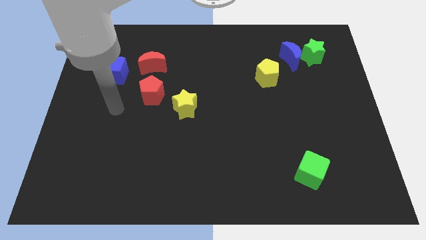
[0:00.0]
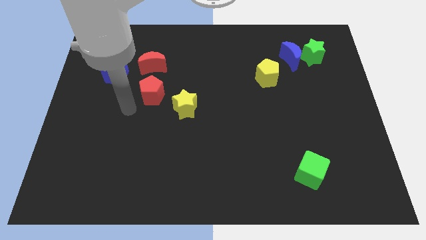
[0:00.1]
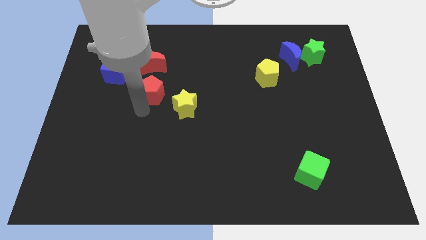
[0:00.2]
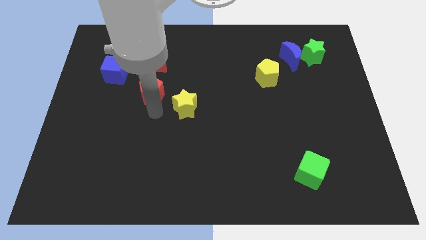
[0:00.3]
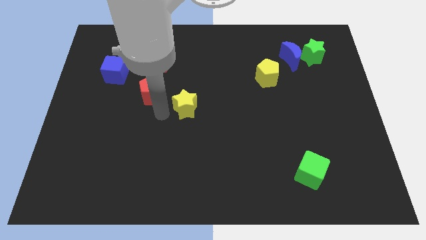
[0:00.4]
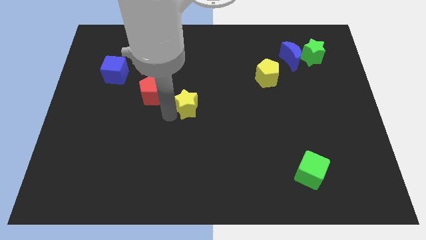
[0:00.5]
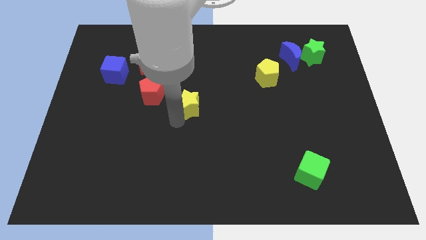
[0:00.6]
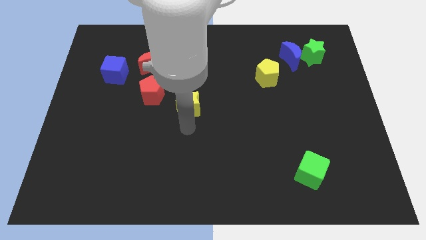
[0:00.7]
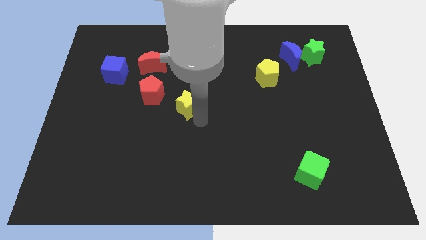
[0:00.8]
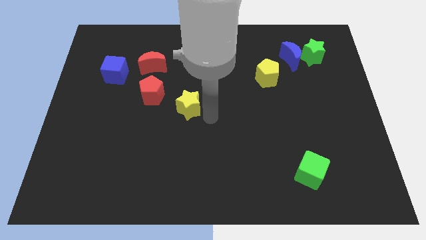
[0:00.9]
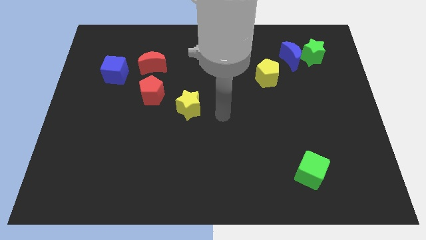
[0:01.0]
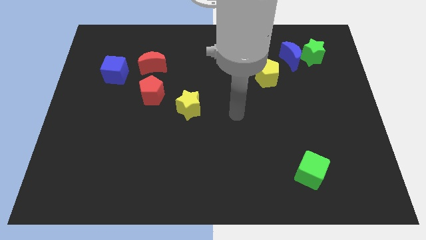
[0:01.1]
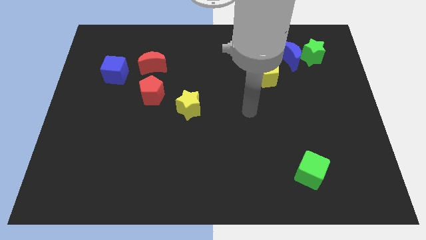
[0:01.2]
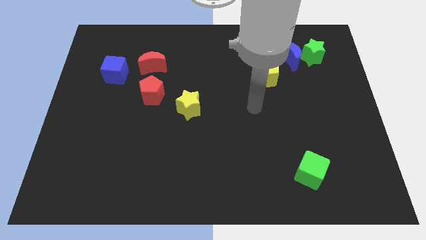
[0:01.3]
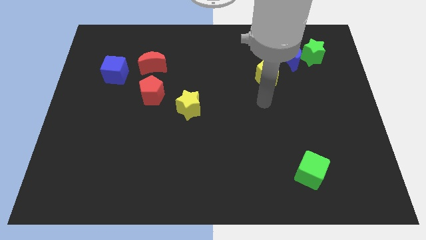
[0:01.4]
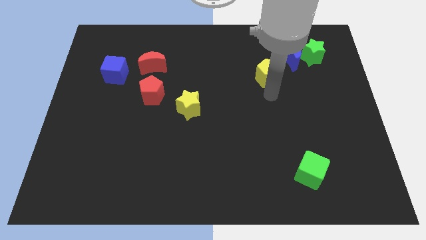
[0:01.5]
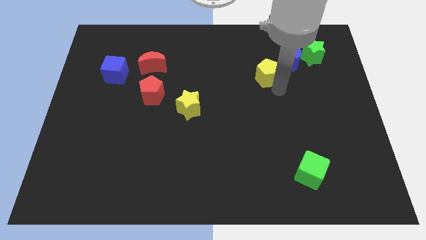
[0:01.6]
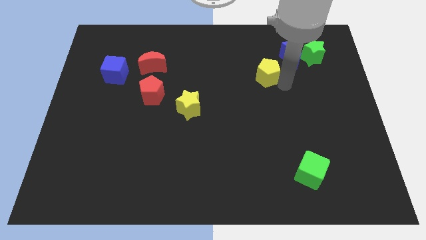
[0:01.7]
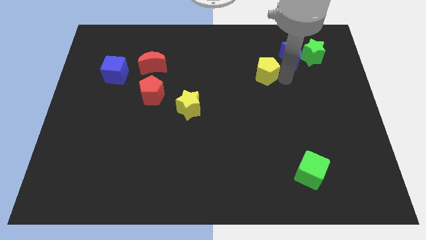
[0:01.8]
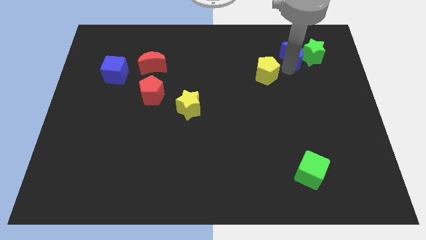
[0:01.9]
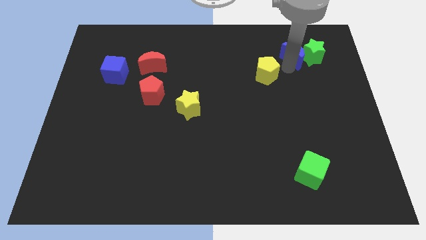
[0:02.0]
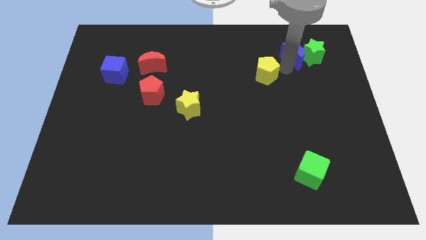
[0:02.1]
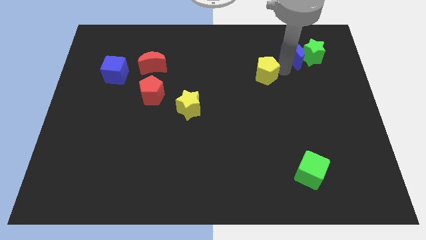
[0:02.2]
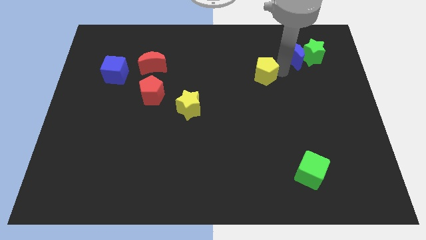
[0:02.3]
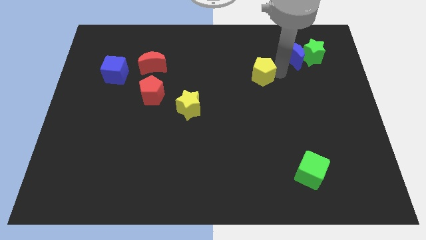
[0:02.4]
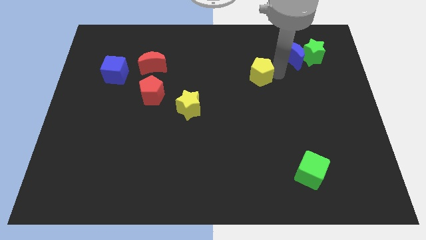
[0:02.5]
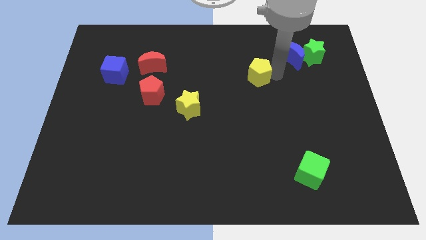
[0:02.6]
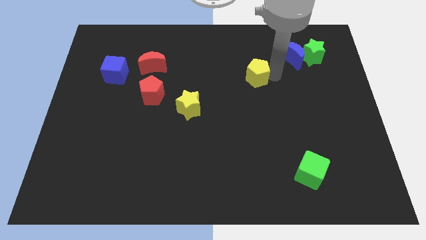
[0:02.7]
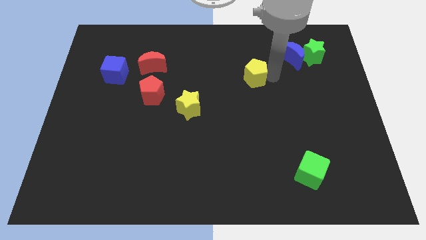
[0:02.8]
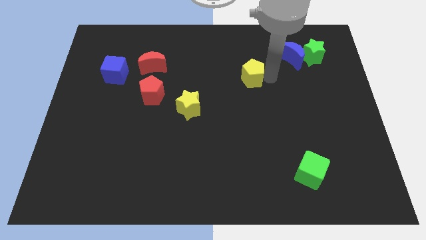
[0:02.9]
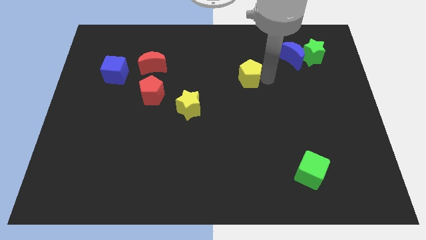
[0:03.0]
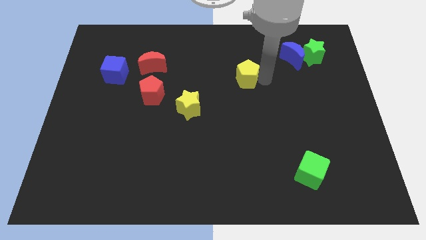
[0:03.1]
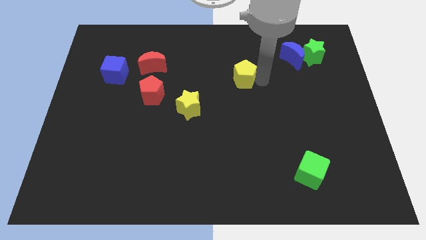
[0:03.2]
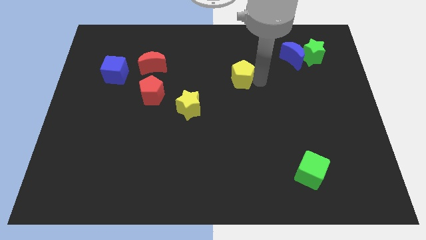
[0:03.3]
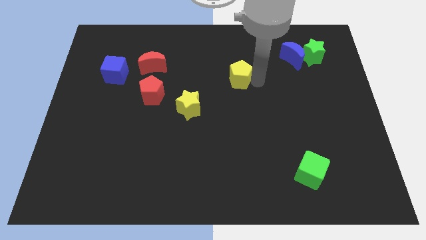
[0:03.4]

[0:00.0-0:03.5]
push the yellow pentagon a little bit left

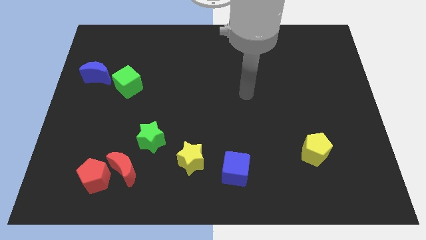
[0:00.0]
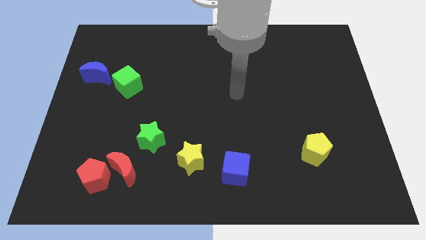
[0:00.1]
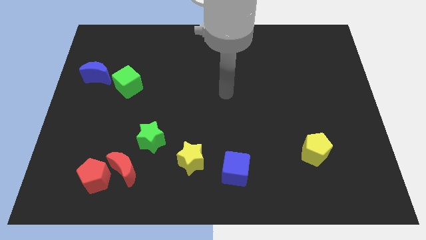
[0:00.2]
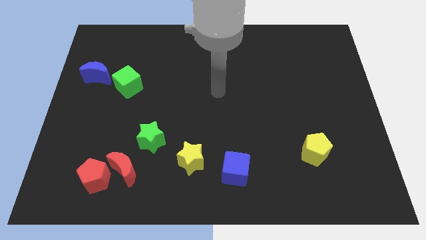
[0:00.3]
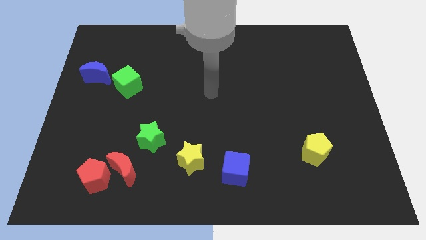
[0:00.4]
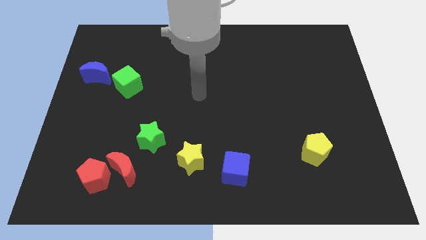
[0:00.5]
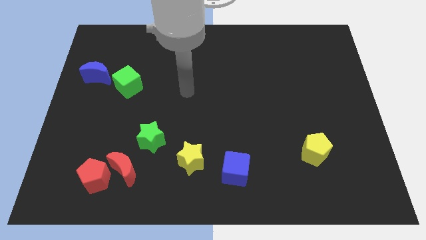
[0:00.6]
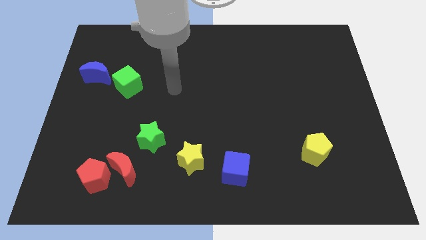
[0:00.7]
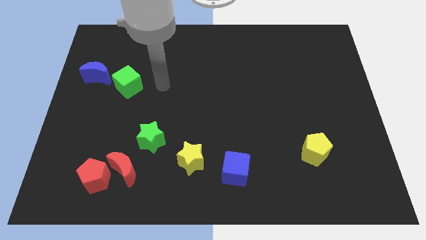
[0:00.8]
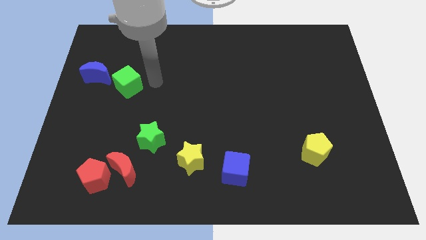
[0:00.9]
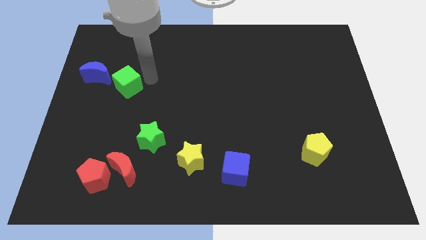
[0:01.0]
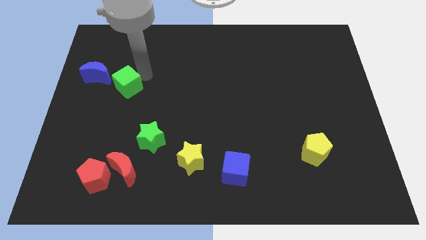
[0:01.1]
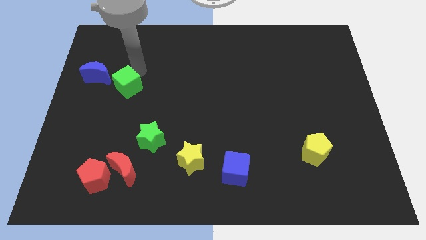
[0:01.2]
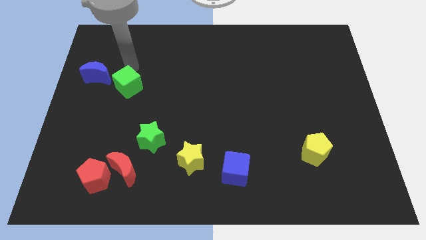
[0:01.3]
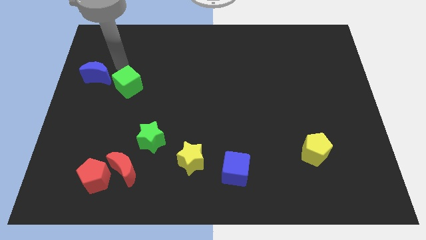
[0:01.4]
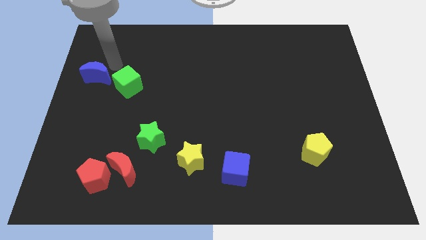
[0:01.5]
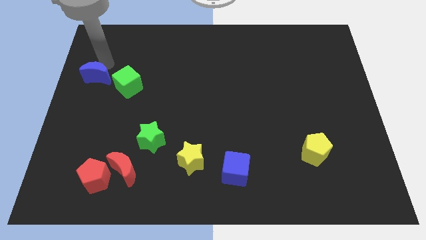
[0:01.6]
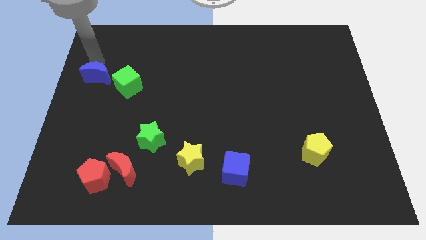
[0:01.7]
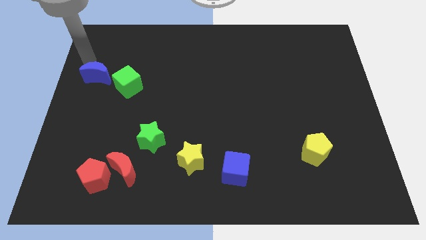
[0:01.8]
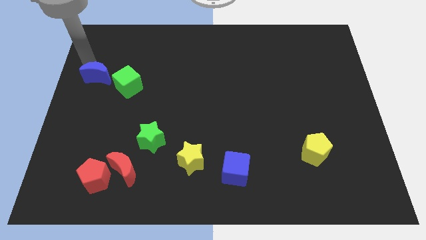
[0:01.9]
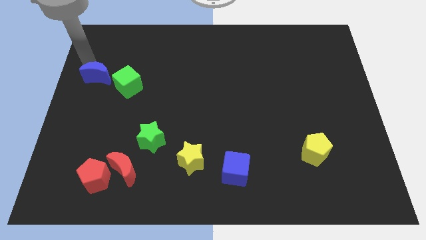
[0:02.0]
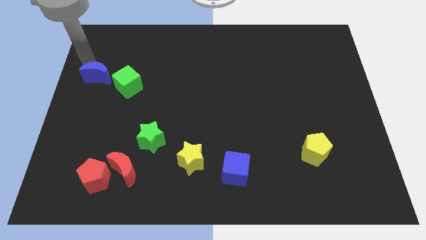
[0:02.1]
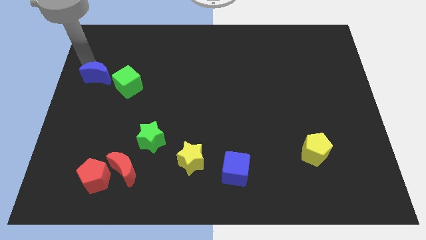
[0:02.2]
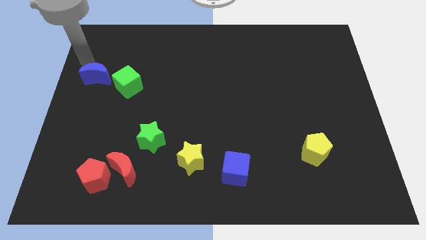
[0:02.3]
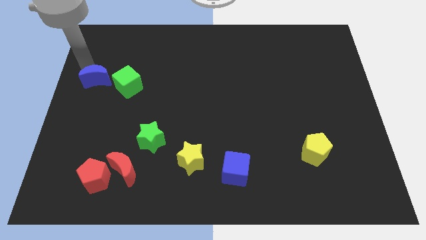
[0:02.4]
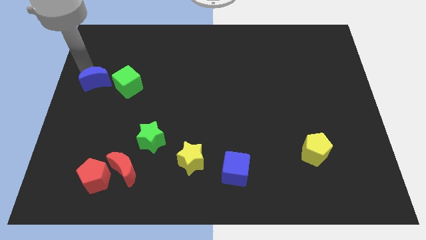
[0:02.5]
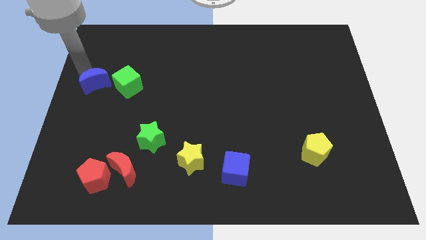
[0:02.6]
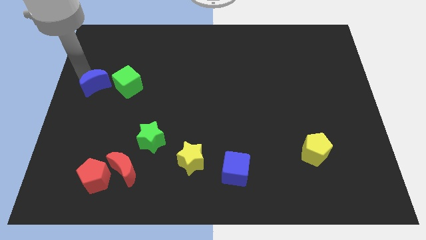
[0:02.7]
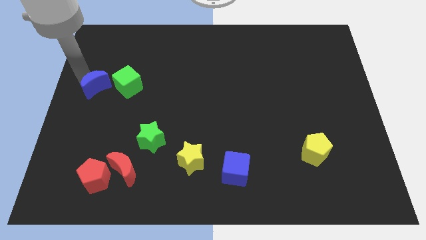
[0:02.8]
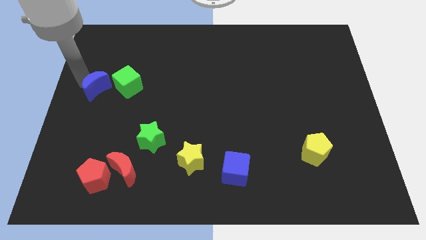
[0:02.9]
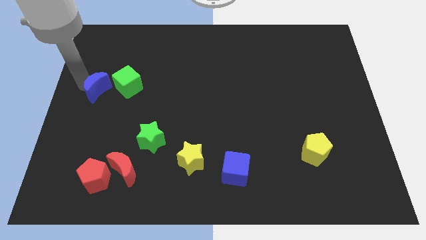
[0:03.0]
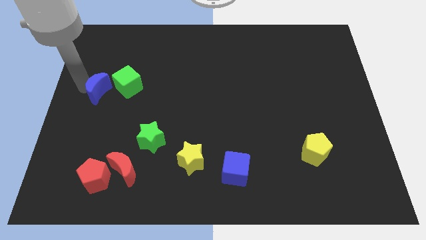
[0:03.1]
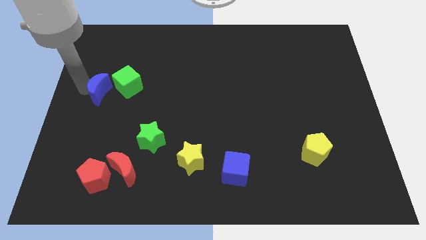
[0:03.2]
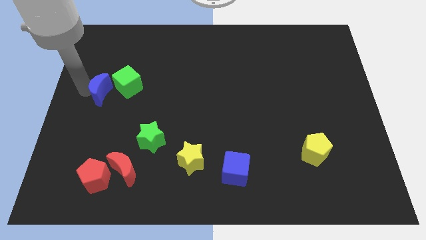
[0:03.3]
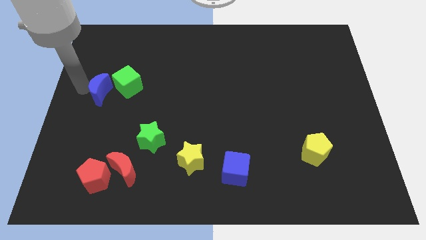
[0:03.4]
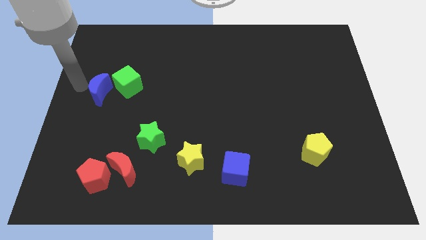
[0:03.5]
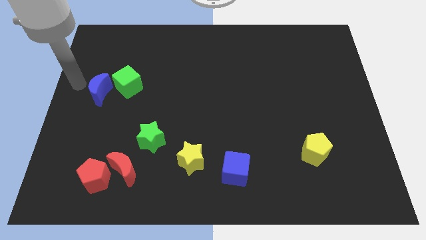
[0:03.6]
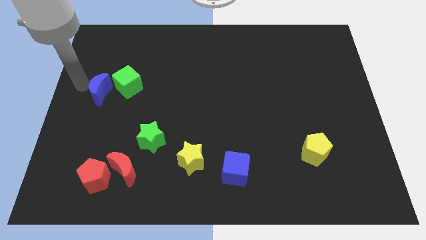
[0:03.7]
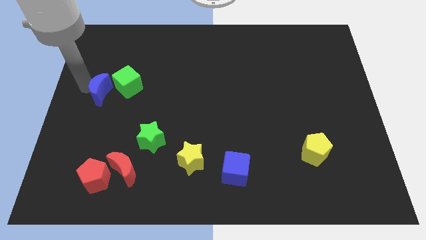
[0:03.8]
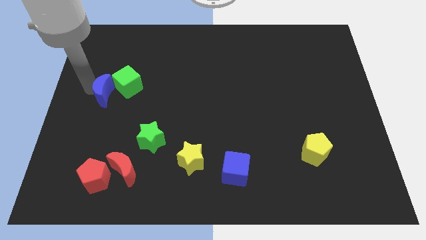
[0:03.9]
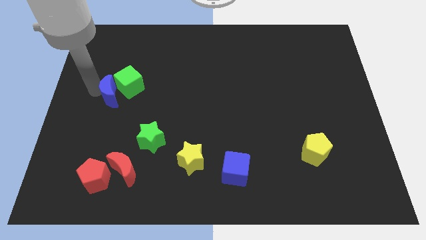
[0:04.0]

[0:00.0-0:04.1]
slide the blue moon somewhat diagonally down and to the right

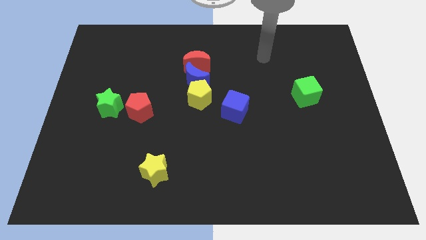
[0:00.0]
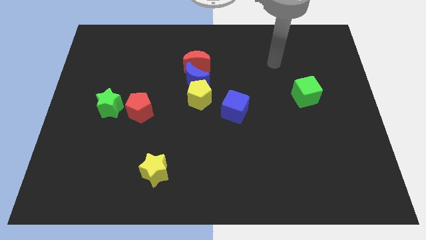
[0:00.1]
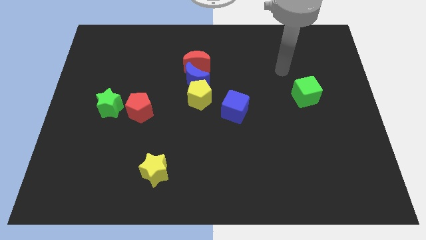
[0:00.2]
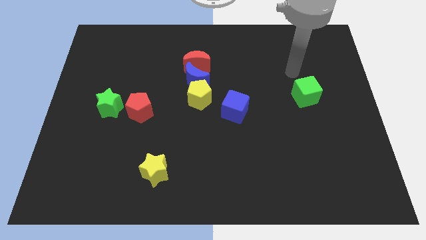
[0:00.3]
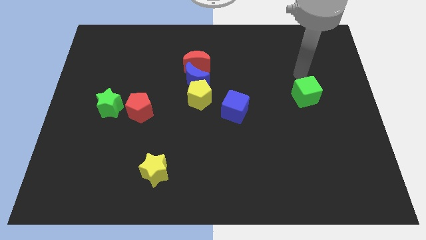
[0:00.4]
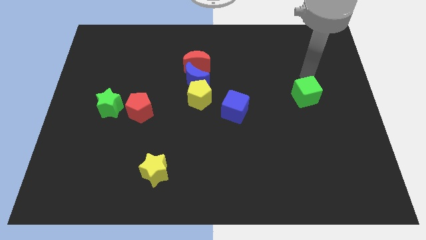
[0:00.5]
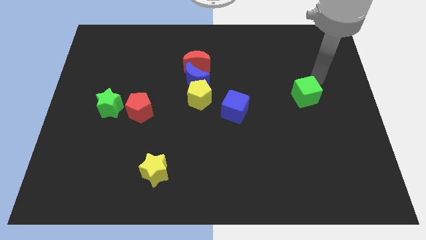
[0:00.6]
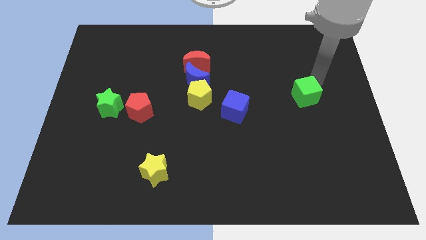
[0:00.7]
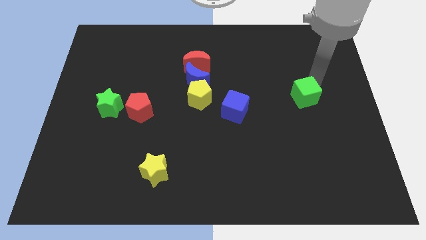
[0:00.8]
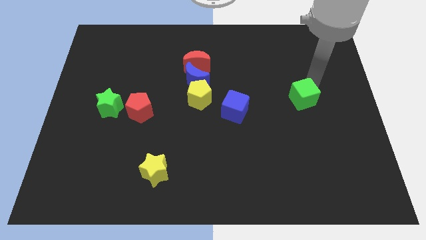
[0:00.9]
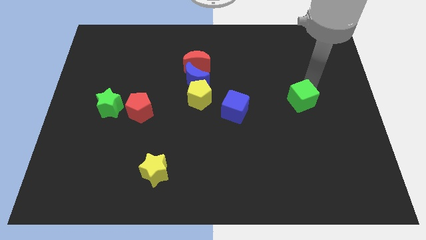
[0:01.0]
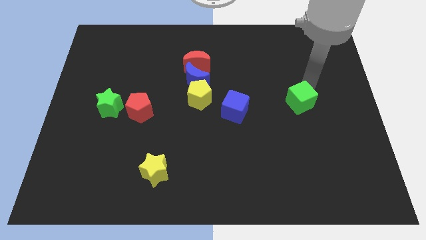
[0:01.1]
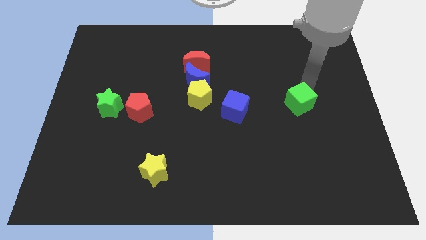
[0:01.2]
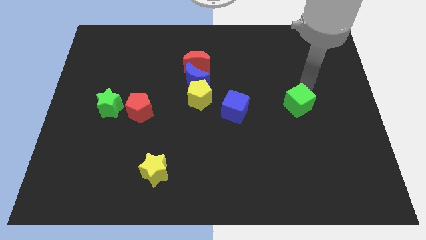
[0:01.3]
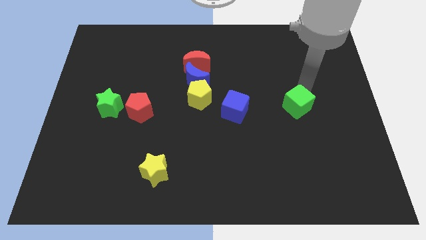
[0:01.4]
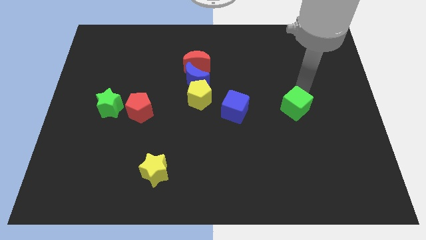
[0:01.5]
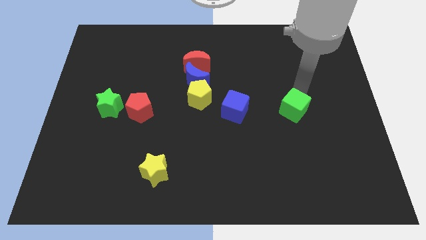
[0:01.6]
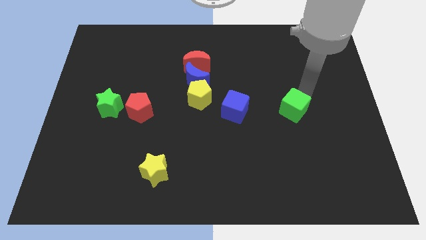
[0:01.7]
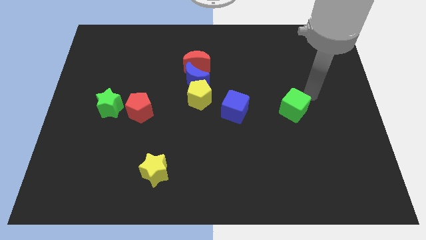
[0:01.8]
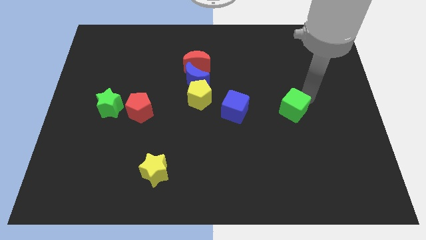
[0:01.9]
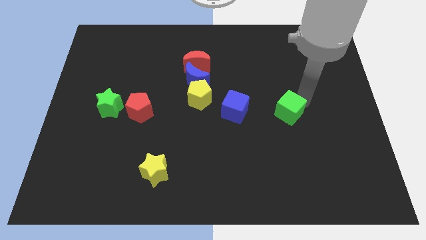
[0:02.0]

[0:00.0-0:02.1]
slightly move the green cube downwards and left
